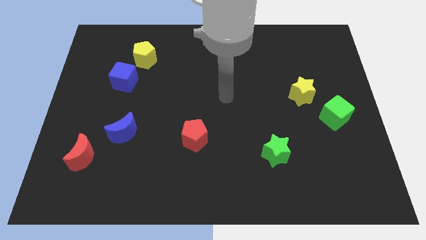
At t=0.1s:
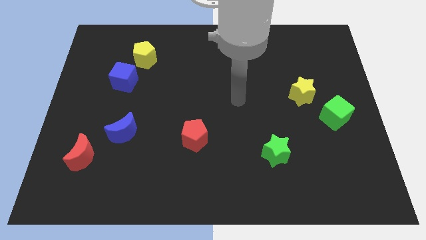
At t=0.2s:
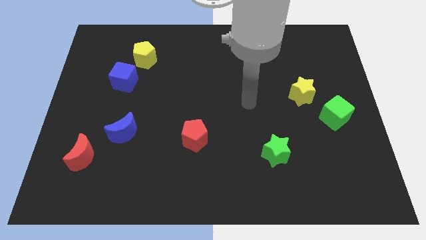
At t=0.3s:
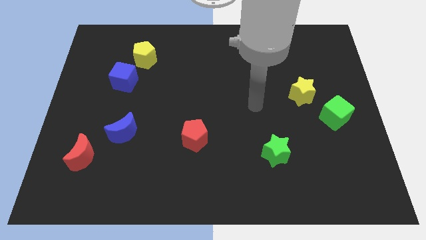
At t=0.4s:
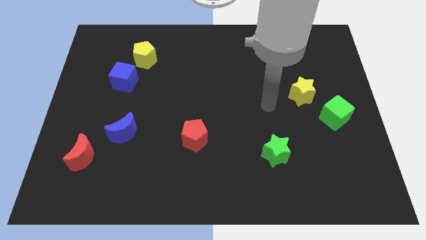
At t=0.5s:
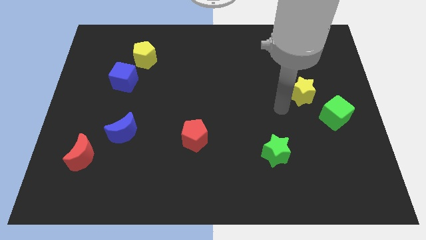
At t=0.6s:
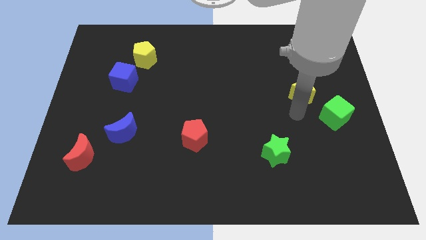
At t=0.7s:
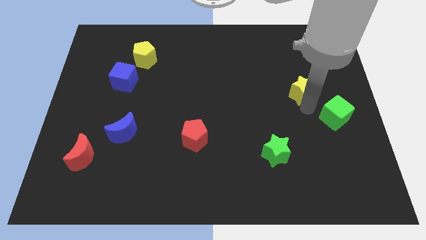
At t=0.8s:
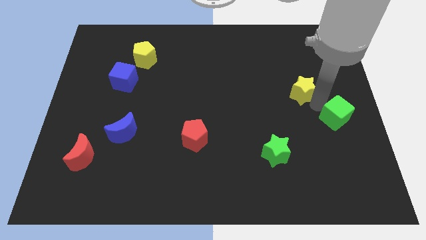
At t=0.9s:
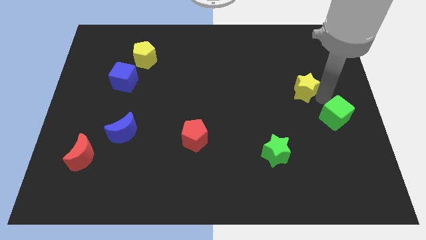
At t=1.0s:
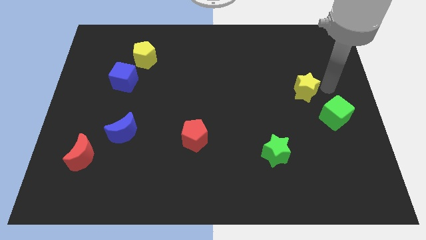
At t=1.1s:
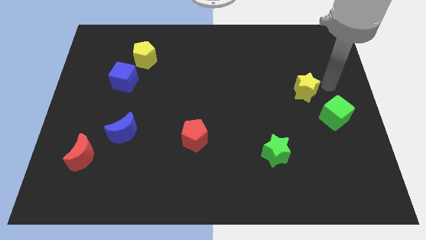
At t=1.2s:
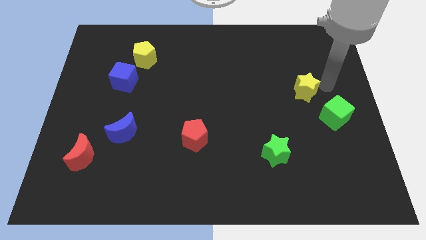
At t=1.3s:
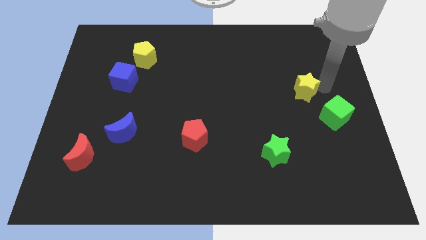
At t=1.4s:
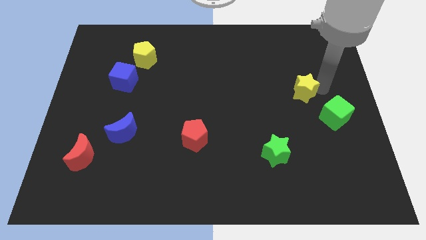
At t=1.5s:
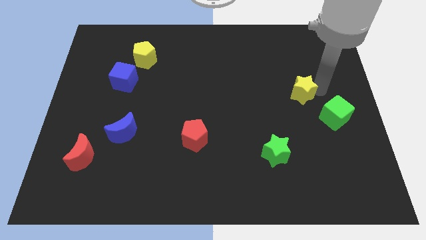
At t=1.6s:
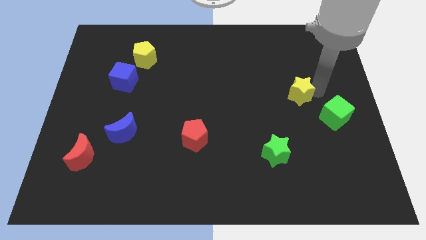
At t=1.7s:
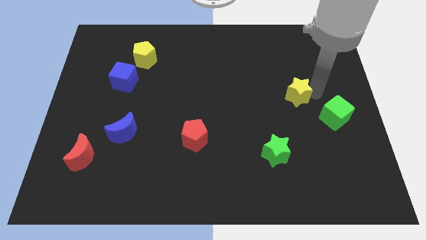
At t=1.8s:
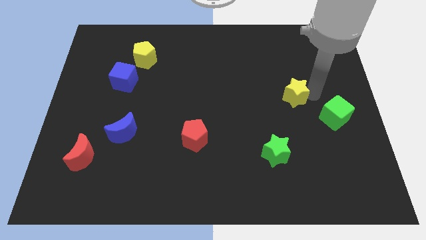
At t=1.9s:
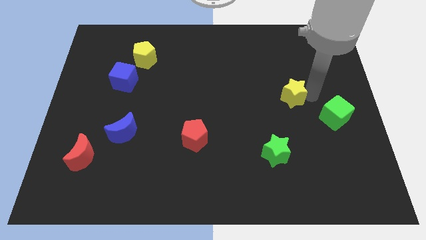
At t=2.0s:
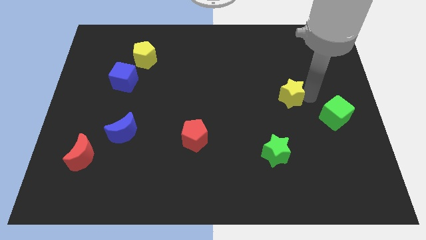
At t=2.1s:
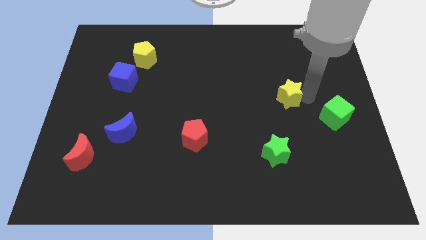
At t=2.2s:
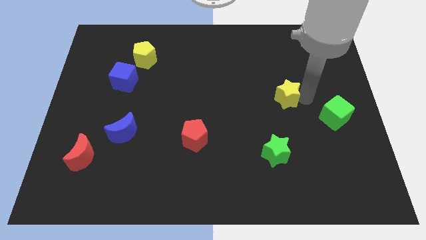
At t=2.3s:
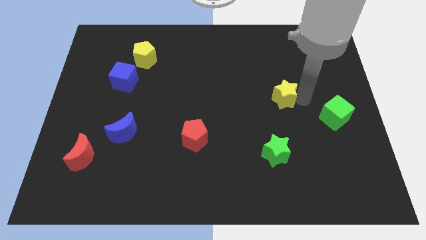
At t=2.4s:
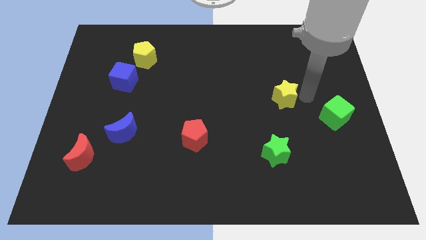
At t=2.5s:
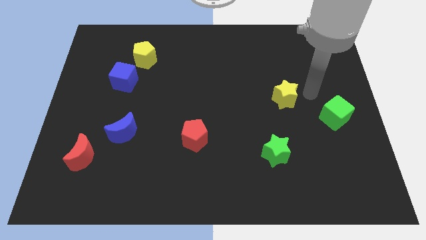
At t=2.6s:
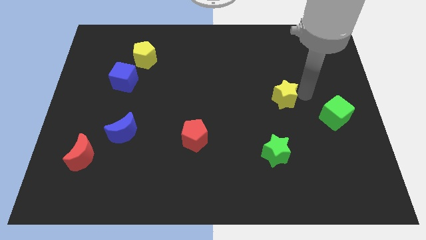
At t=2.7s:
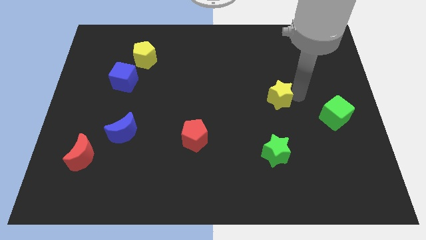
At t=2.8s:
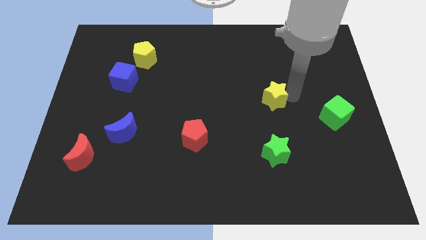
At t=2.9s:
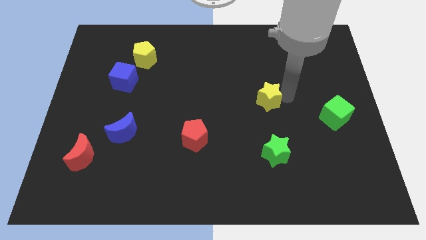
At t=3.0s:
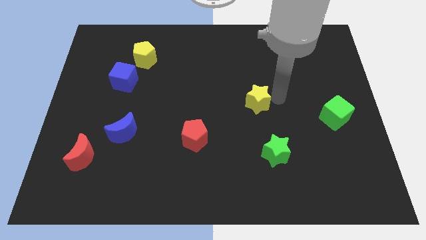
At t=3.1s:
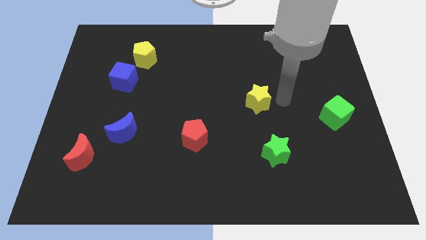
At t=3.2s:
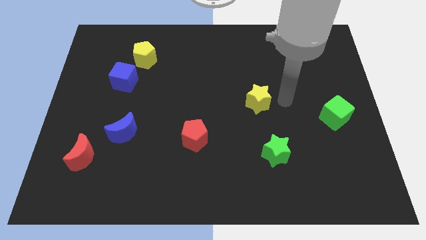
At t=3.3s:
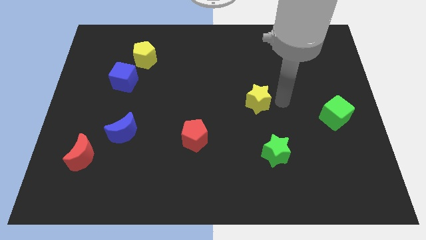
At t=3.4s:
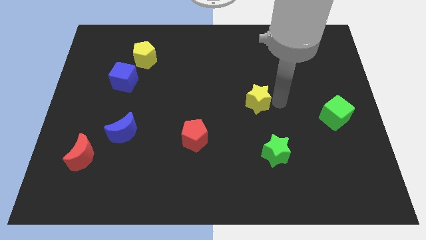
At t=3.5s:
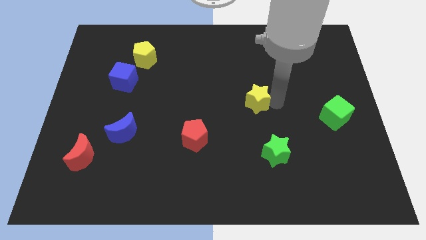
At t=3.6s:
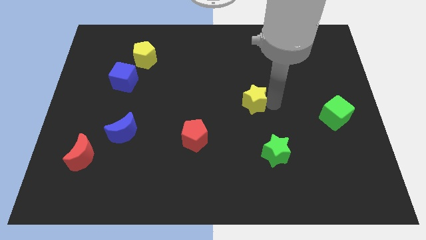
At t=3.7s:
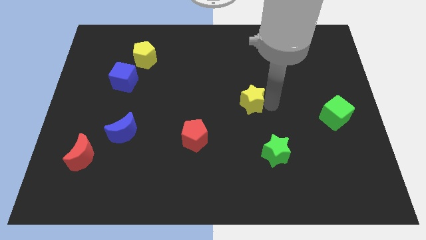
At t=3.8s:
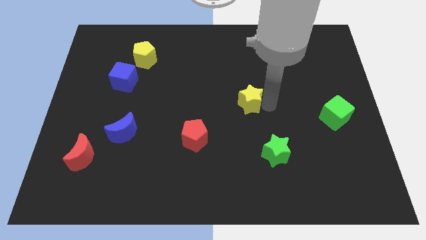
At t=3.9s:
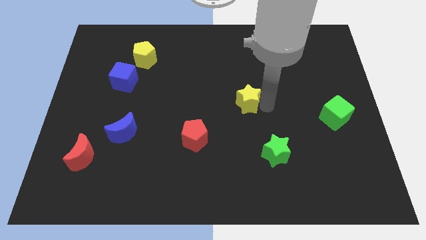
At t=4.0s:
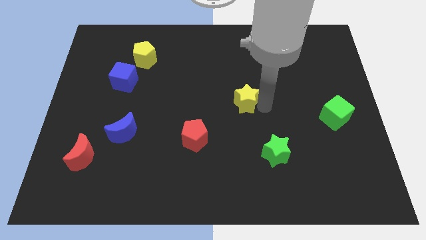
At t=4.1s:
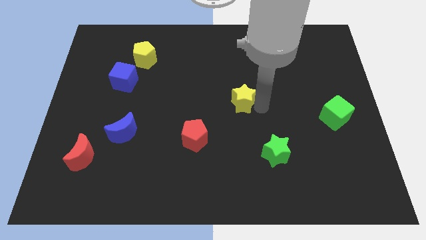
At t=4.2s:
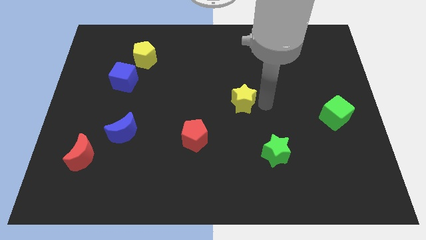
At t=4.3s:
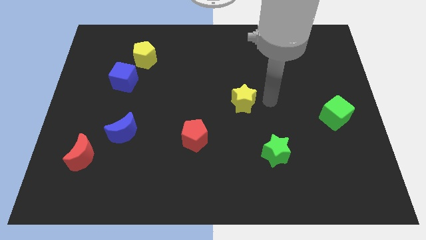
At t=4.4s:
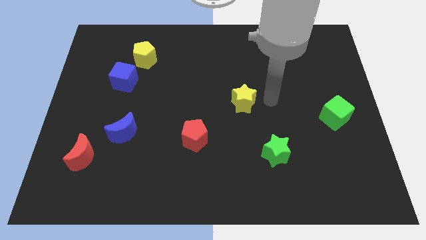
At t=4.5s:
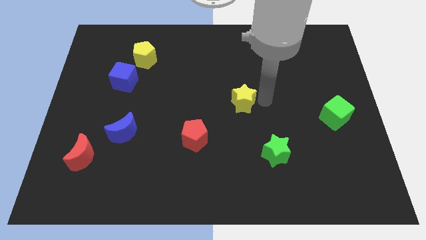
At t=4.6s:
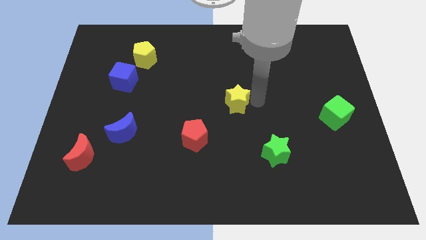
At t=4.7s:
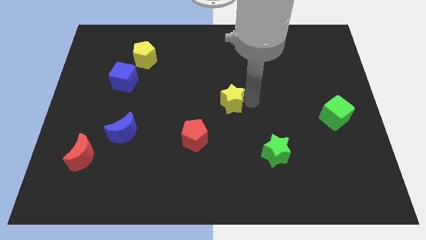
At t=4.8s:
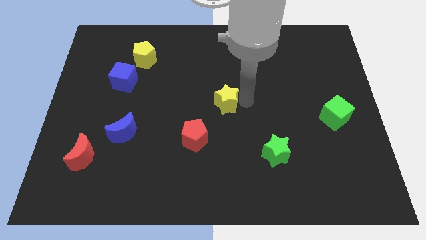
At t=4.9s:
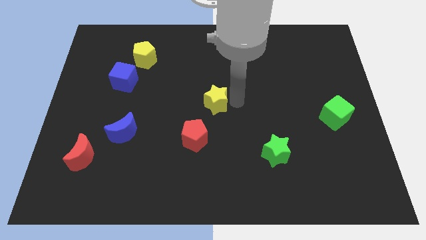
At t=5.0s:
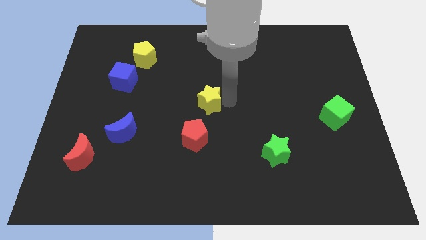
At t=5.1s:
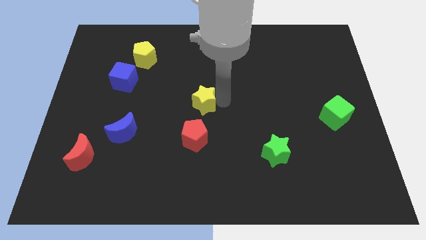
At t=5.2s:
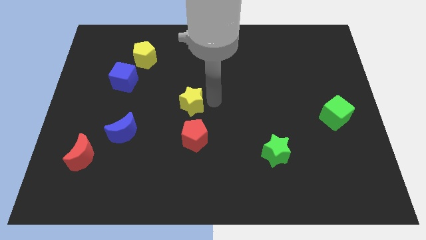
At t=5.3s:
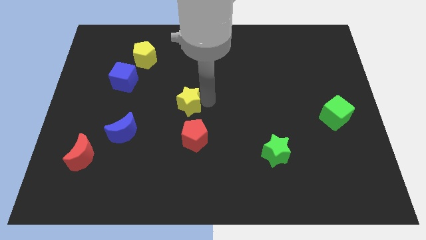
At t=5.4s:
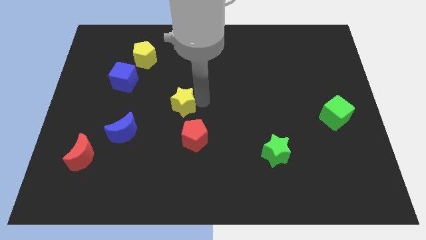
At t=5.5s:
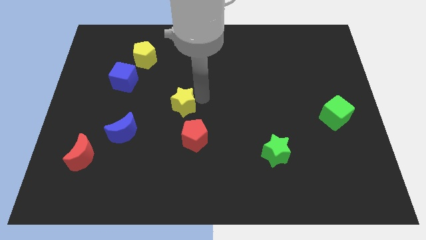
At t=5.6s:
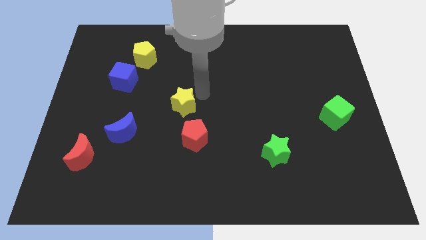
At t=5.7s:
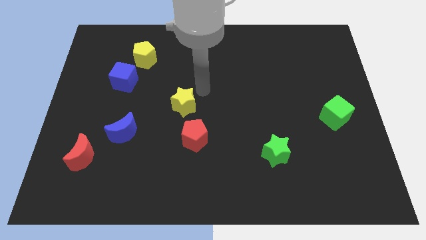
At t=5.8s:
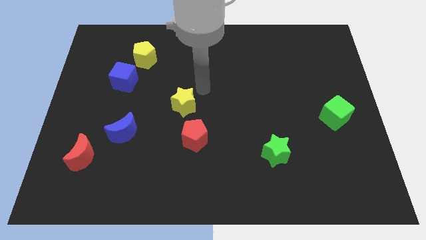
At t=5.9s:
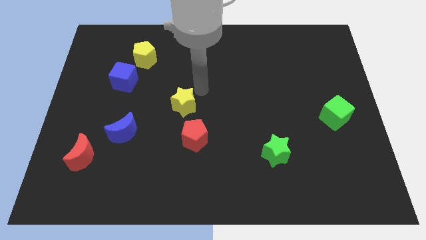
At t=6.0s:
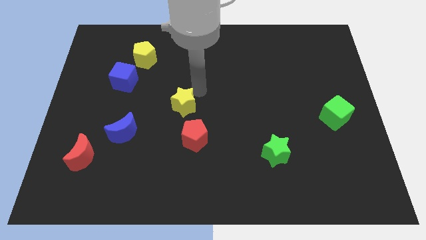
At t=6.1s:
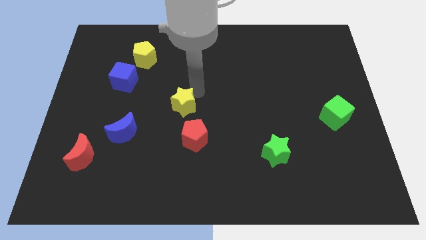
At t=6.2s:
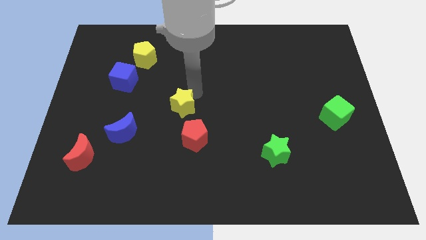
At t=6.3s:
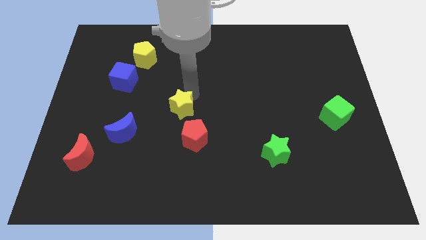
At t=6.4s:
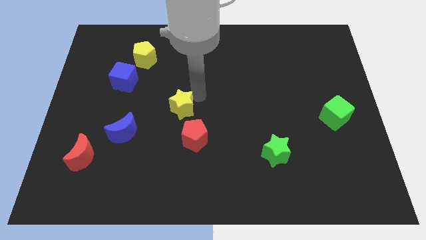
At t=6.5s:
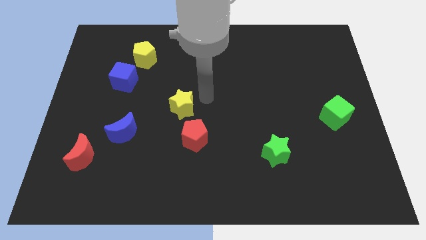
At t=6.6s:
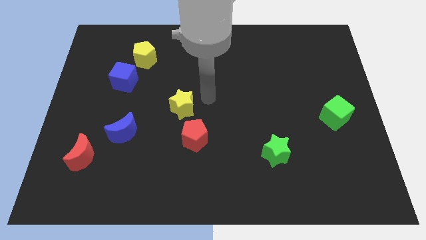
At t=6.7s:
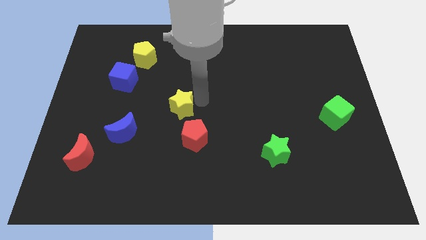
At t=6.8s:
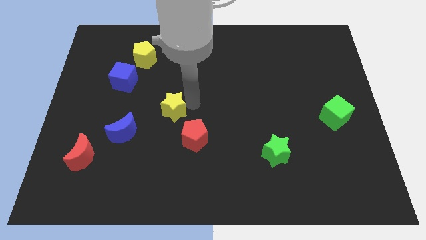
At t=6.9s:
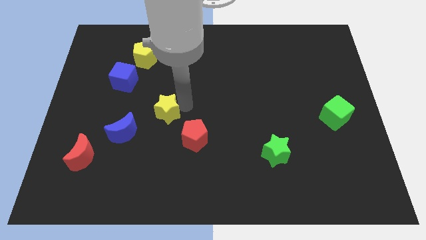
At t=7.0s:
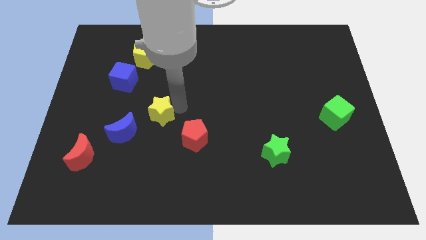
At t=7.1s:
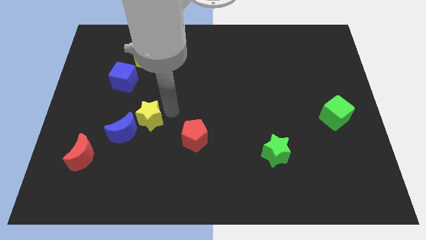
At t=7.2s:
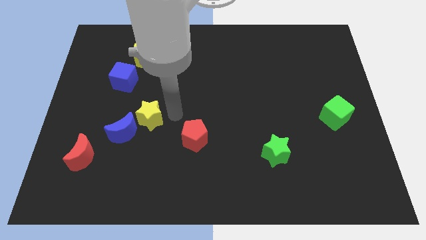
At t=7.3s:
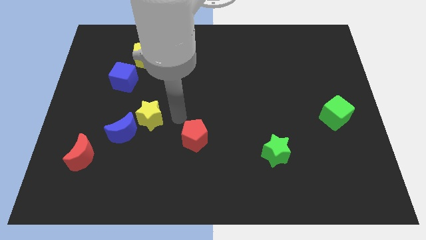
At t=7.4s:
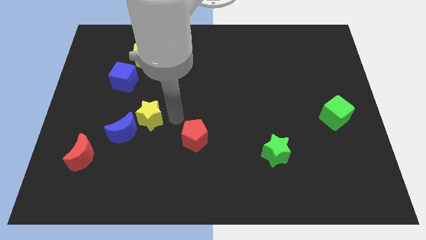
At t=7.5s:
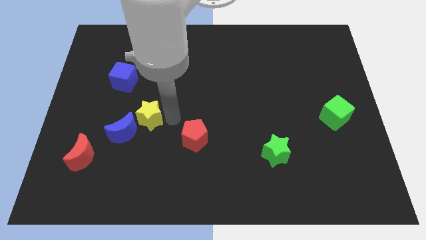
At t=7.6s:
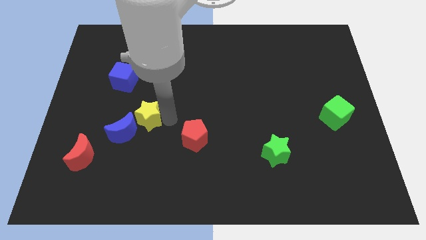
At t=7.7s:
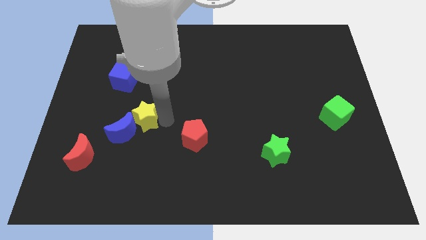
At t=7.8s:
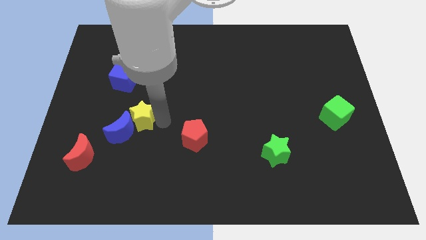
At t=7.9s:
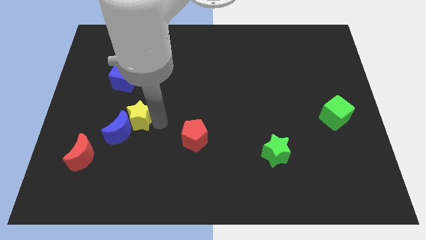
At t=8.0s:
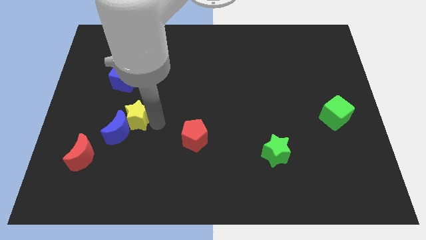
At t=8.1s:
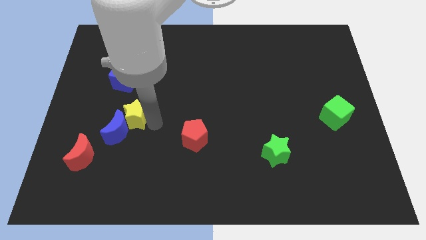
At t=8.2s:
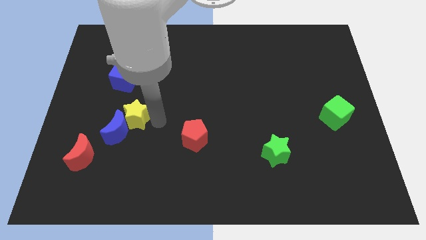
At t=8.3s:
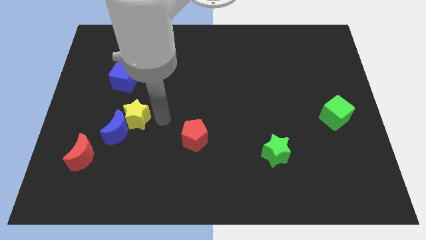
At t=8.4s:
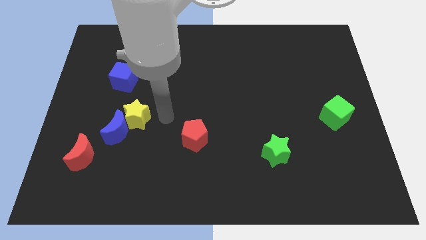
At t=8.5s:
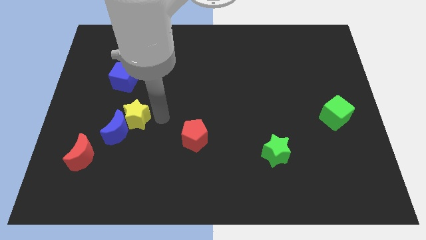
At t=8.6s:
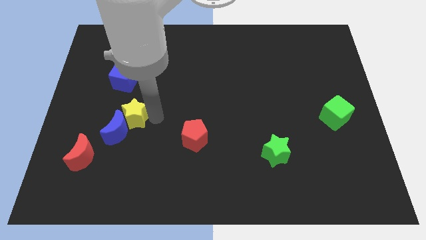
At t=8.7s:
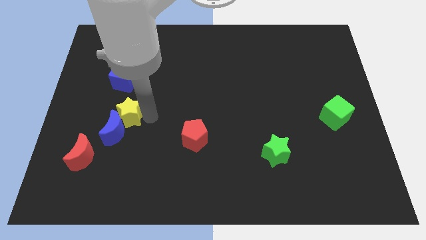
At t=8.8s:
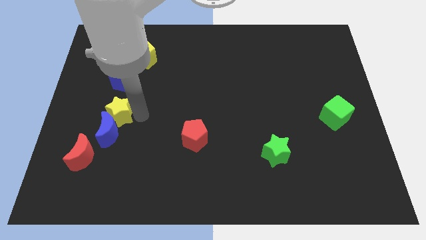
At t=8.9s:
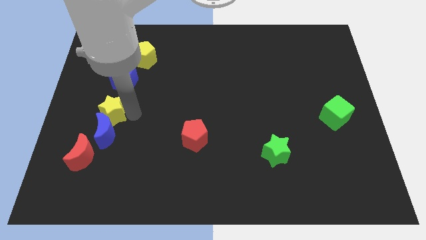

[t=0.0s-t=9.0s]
push the yellow star to the top side of the red moon
